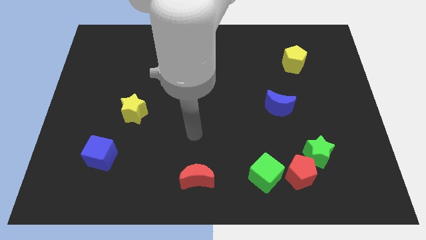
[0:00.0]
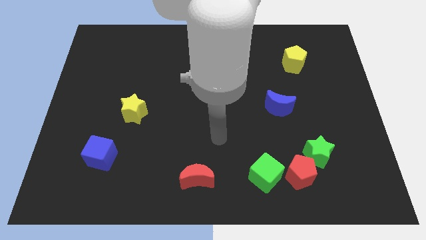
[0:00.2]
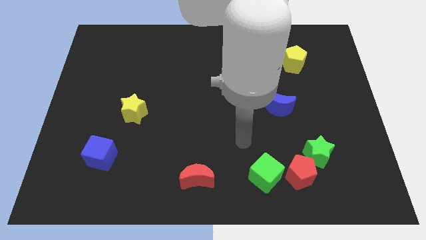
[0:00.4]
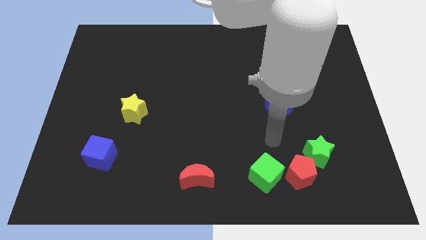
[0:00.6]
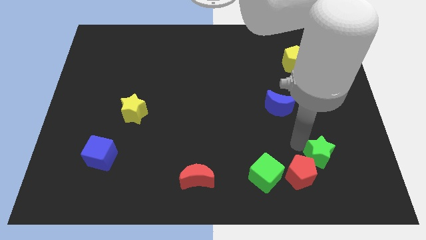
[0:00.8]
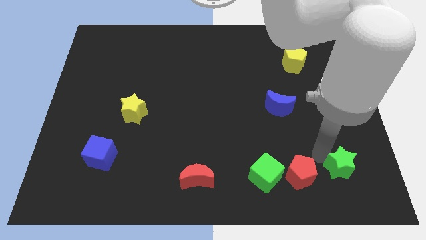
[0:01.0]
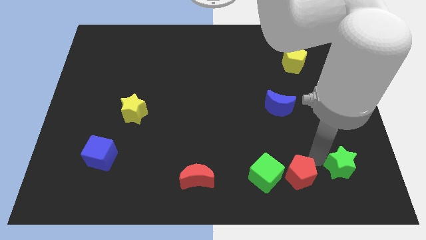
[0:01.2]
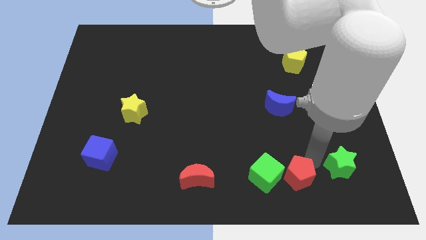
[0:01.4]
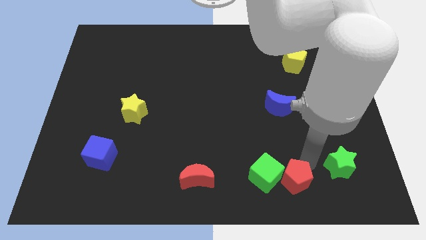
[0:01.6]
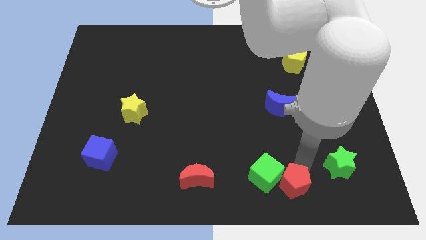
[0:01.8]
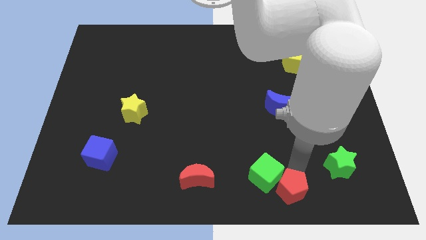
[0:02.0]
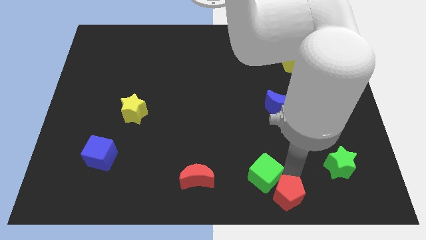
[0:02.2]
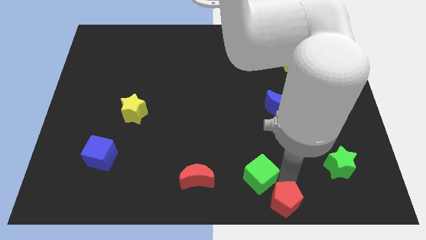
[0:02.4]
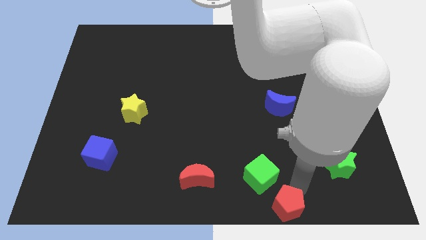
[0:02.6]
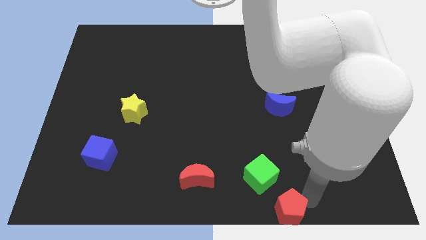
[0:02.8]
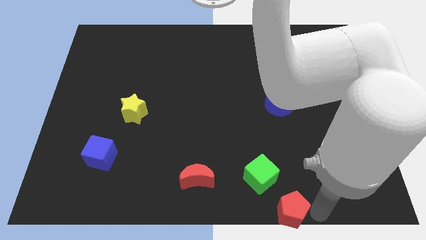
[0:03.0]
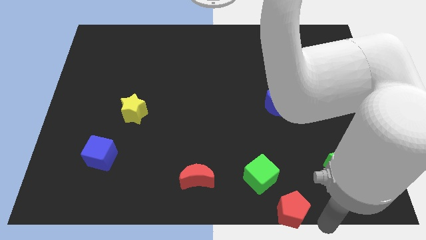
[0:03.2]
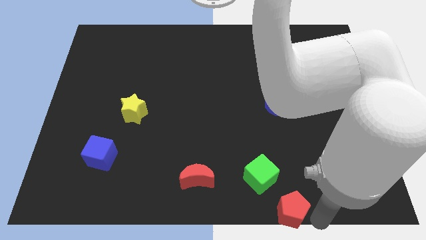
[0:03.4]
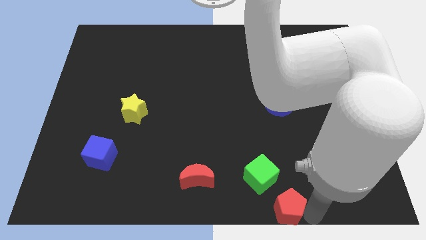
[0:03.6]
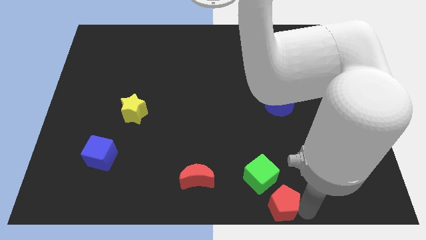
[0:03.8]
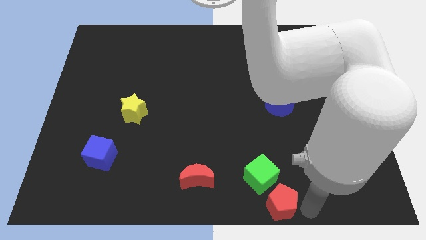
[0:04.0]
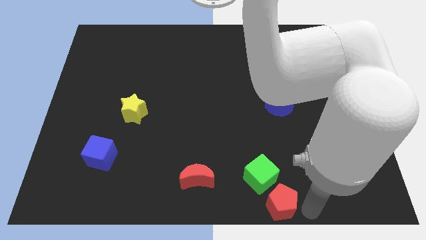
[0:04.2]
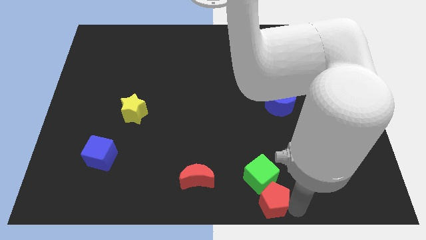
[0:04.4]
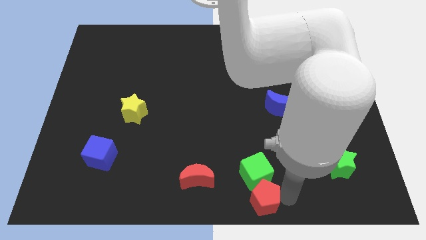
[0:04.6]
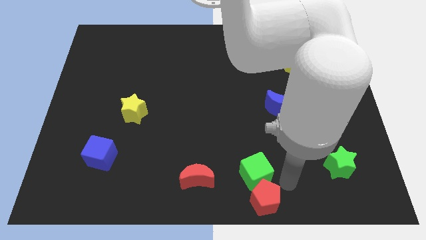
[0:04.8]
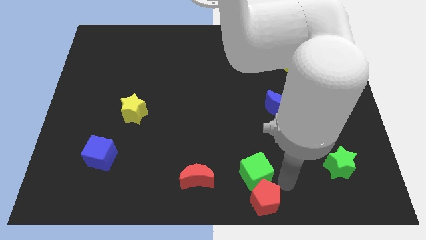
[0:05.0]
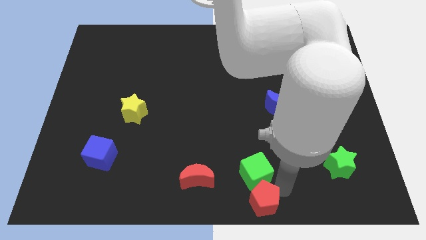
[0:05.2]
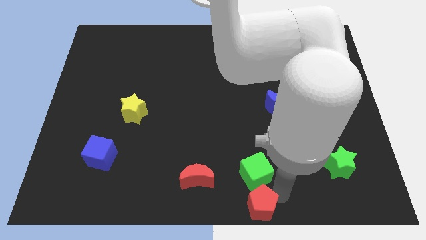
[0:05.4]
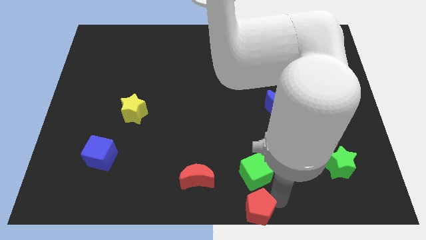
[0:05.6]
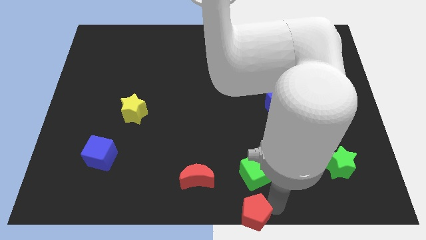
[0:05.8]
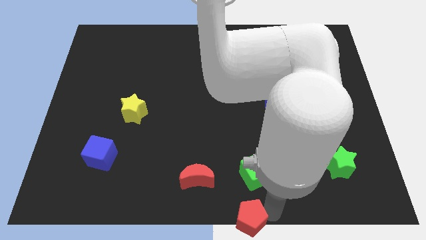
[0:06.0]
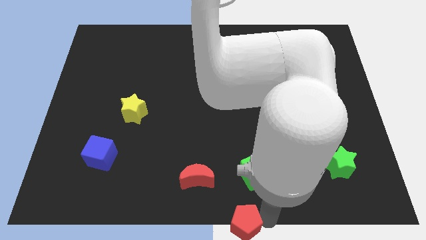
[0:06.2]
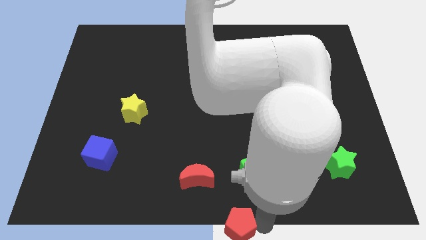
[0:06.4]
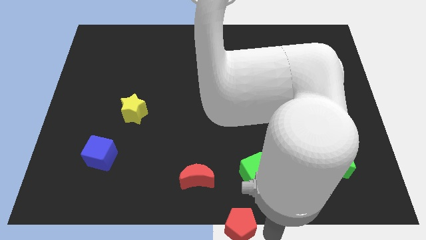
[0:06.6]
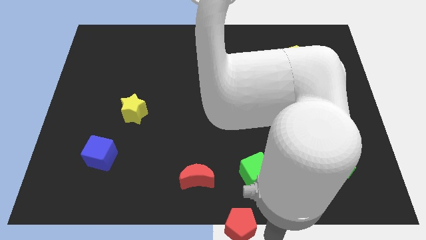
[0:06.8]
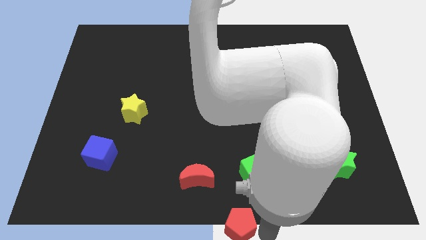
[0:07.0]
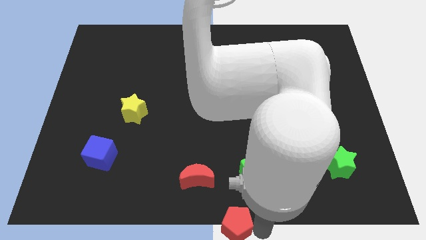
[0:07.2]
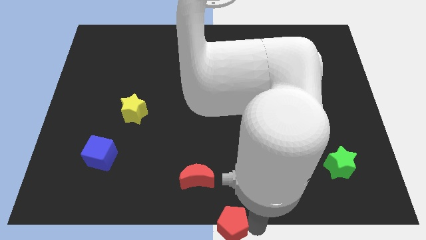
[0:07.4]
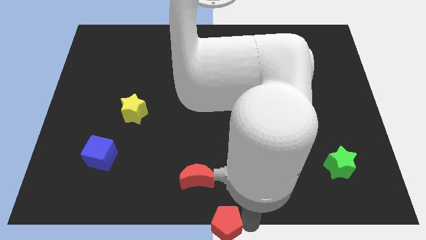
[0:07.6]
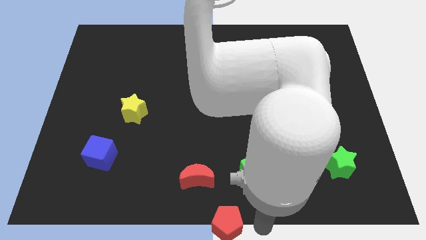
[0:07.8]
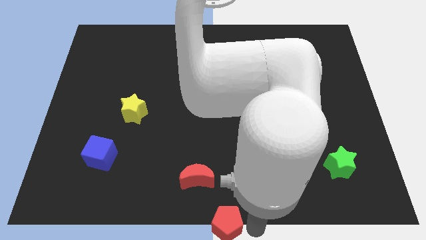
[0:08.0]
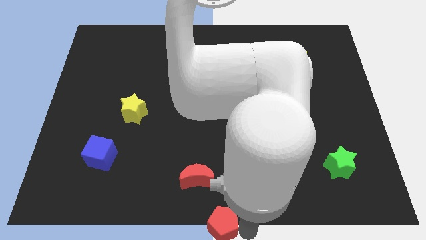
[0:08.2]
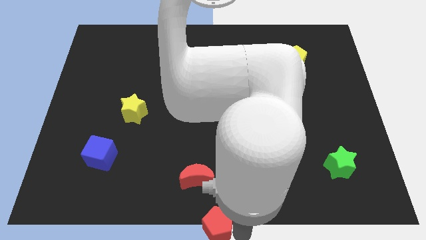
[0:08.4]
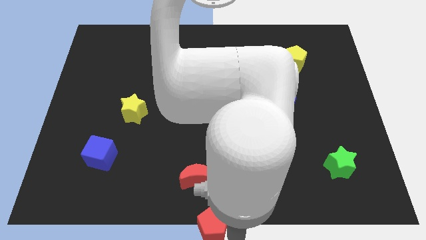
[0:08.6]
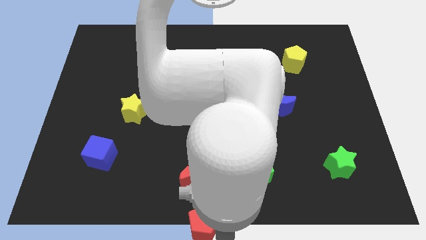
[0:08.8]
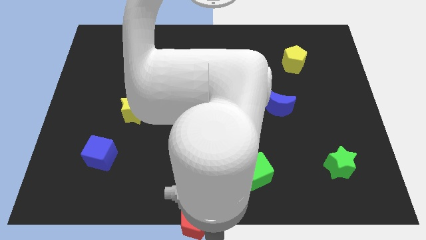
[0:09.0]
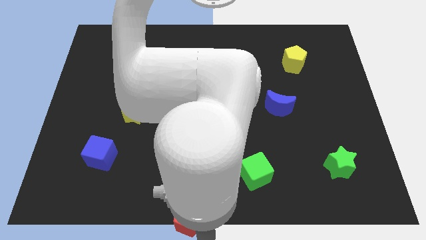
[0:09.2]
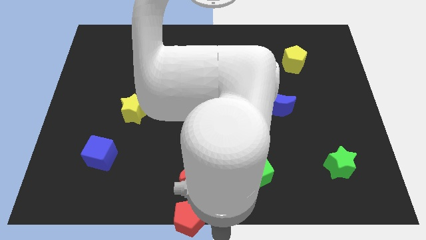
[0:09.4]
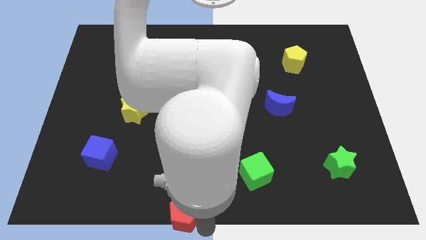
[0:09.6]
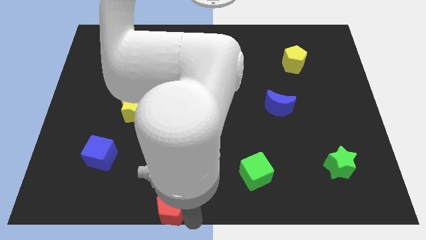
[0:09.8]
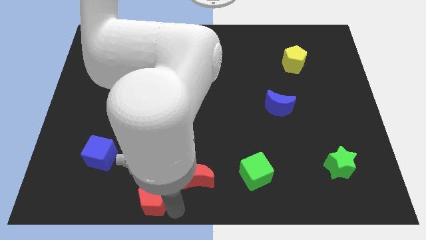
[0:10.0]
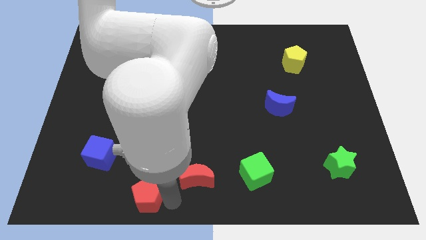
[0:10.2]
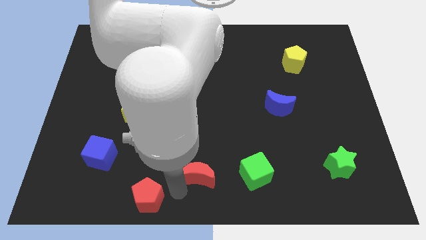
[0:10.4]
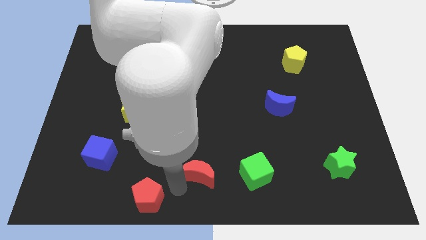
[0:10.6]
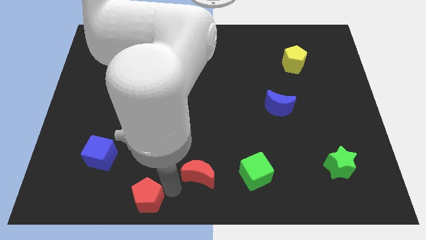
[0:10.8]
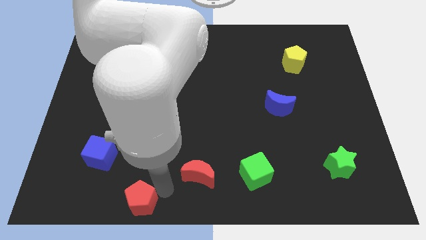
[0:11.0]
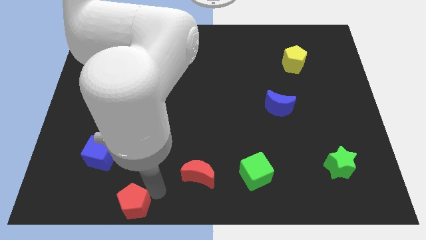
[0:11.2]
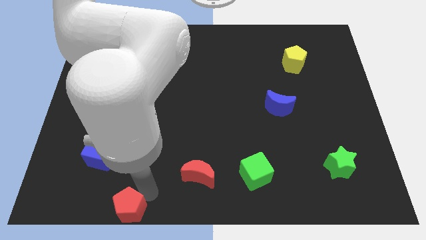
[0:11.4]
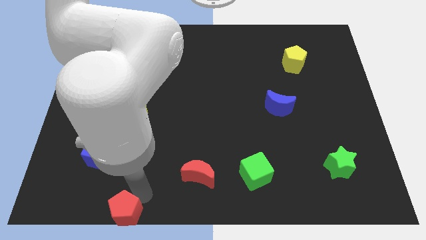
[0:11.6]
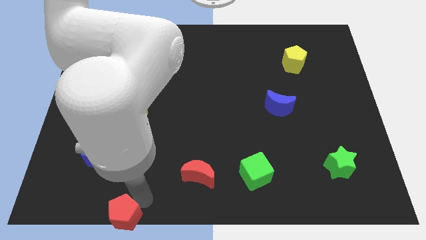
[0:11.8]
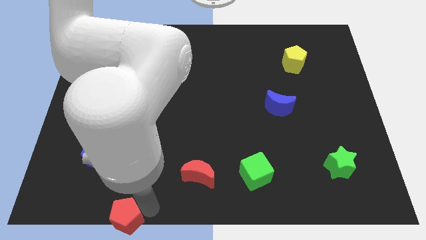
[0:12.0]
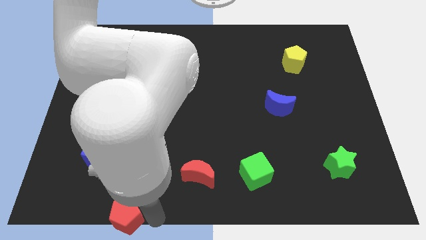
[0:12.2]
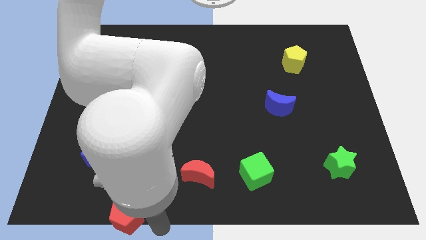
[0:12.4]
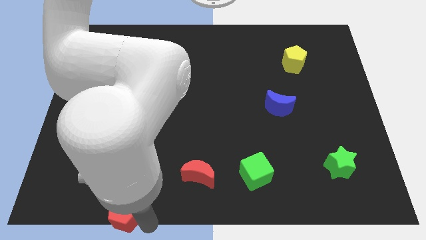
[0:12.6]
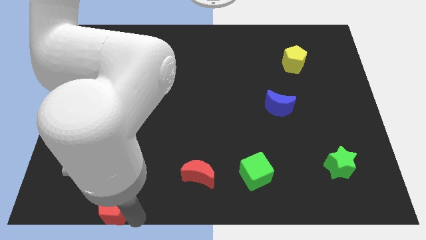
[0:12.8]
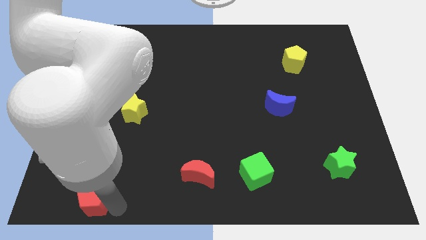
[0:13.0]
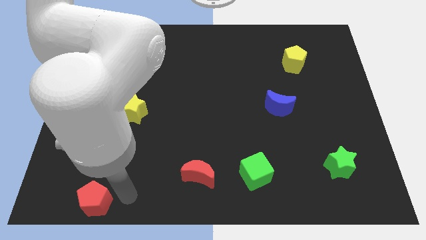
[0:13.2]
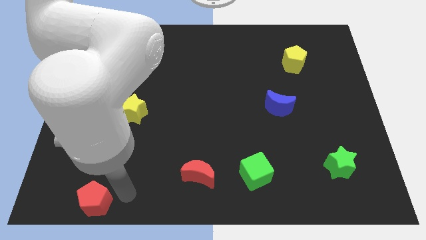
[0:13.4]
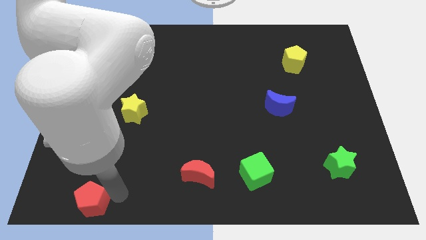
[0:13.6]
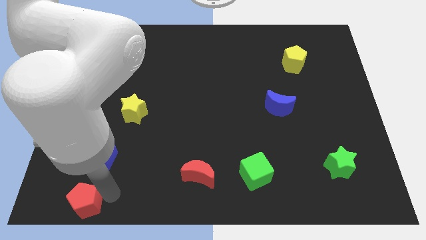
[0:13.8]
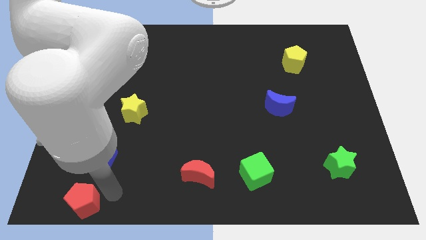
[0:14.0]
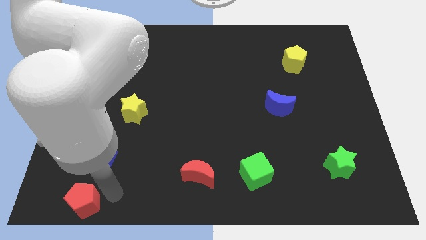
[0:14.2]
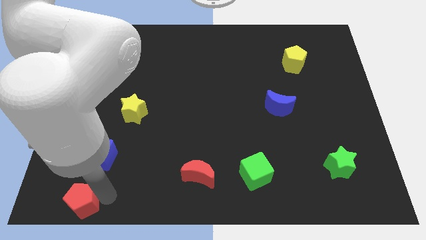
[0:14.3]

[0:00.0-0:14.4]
push the red pentagon to the lower left corner

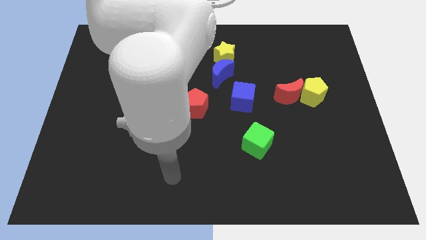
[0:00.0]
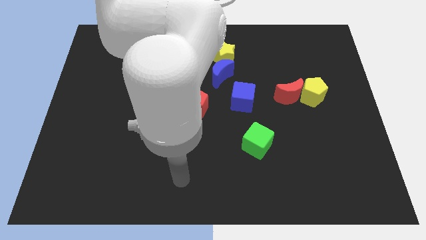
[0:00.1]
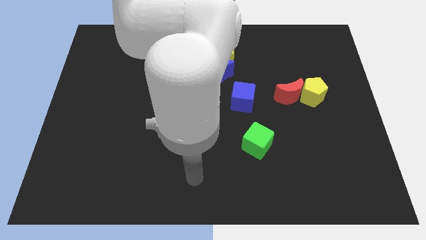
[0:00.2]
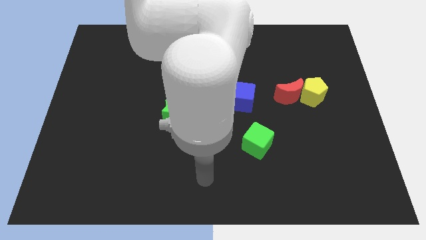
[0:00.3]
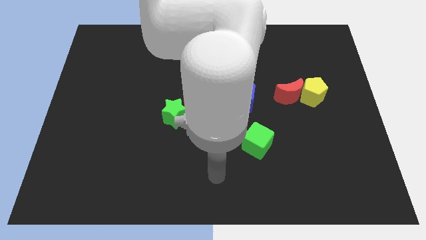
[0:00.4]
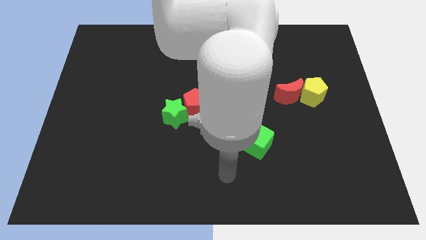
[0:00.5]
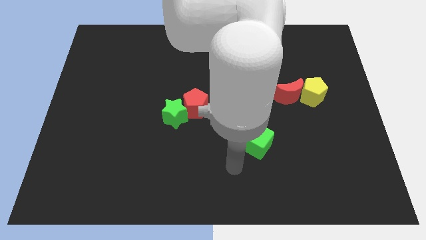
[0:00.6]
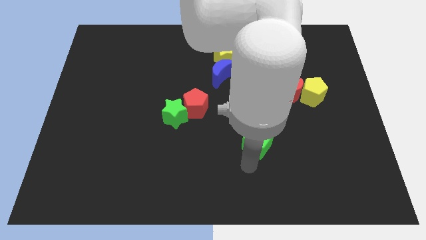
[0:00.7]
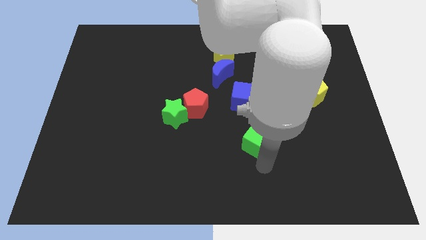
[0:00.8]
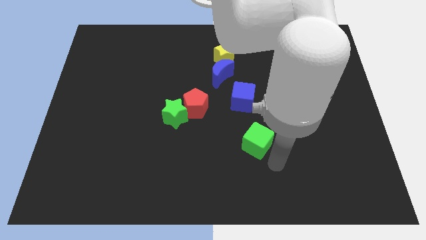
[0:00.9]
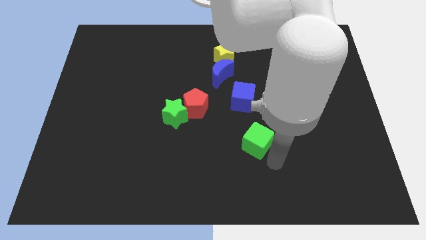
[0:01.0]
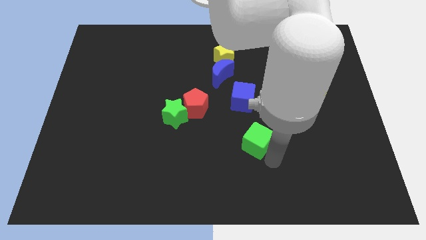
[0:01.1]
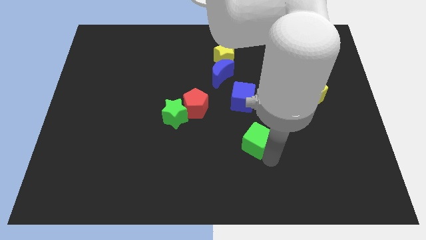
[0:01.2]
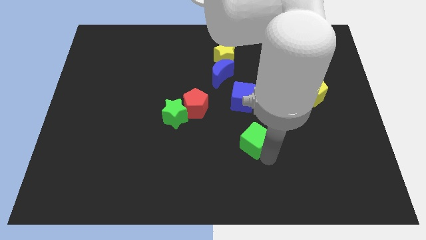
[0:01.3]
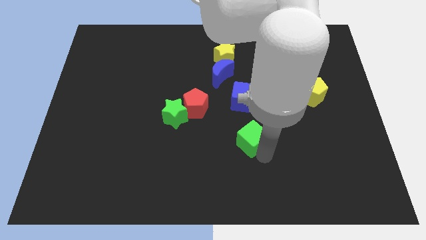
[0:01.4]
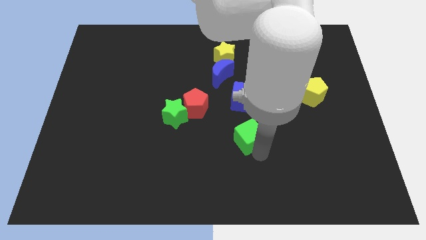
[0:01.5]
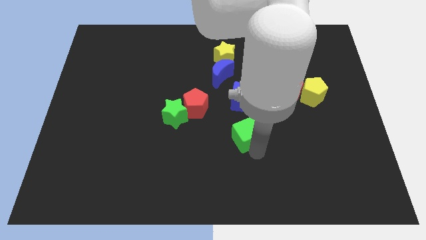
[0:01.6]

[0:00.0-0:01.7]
slide the green cube to the center
